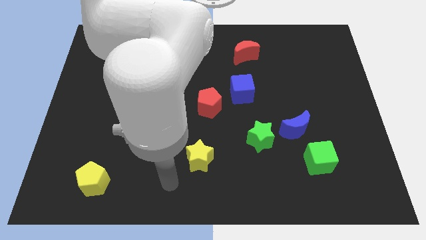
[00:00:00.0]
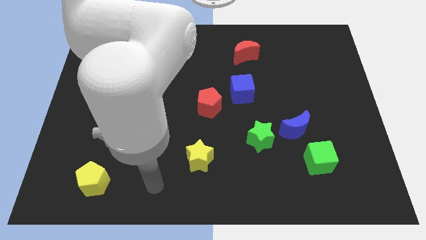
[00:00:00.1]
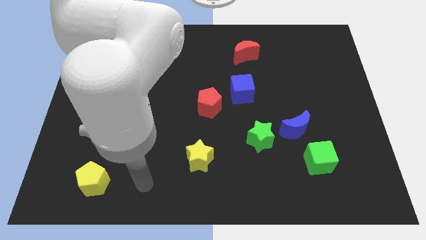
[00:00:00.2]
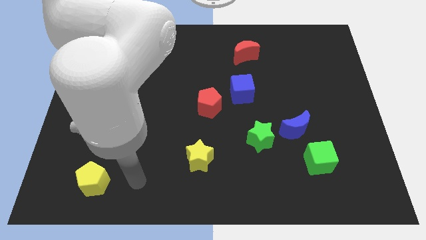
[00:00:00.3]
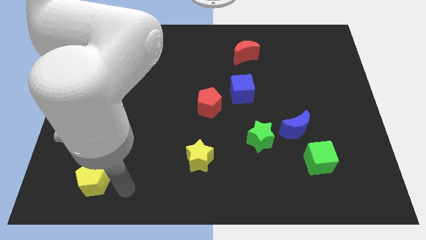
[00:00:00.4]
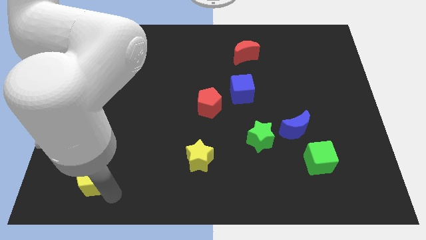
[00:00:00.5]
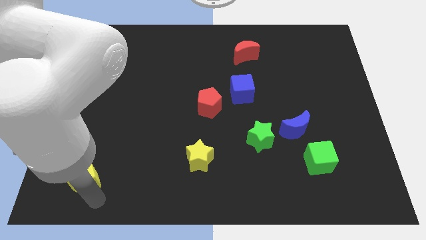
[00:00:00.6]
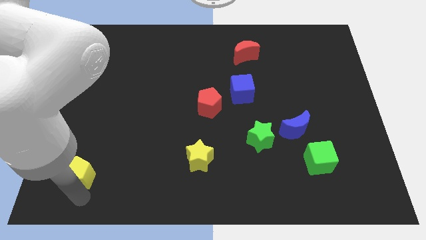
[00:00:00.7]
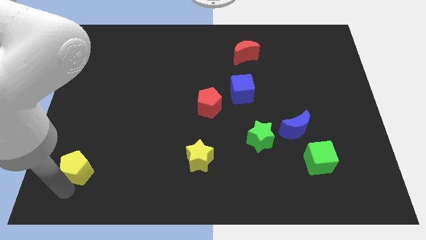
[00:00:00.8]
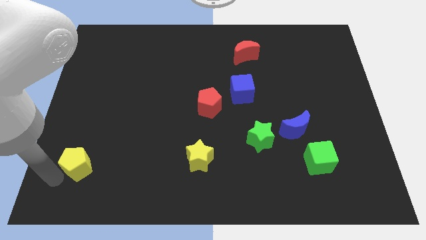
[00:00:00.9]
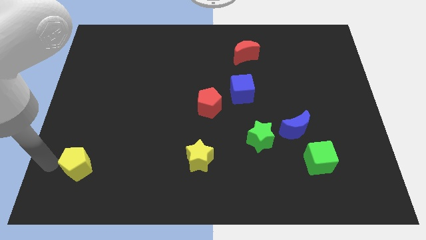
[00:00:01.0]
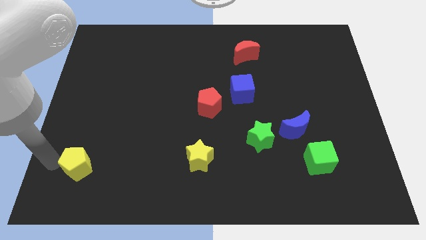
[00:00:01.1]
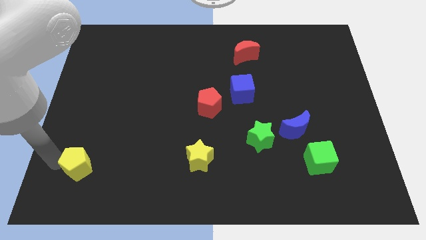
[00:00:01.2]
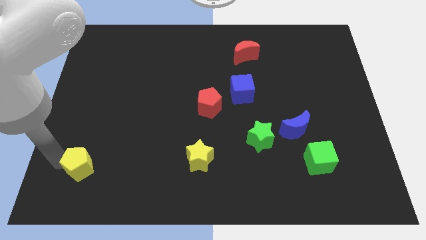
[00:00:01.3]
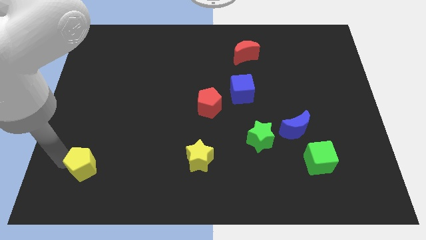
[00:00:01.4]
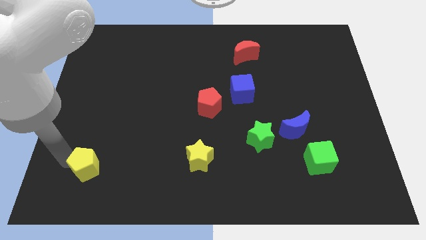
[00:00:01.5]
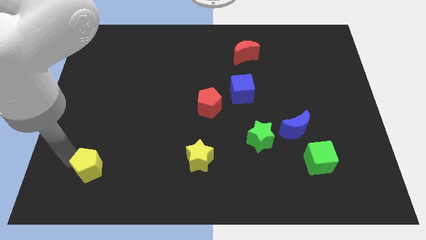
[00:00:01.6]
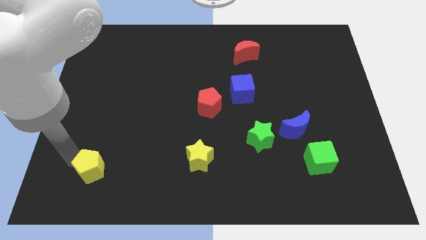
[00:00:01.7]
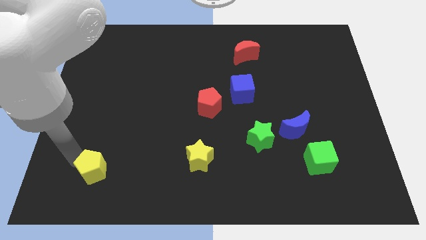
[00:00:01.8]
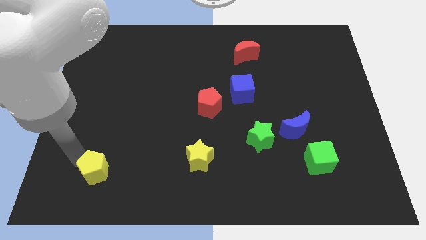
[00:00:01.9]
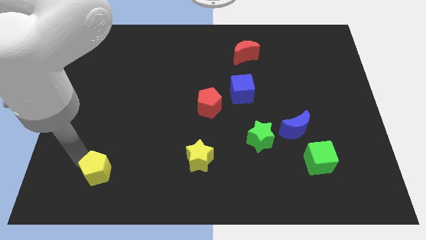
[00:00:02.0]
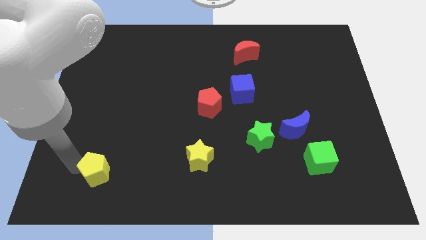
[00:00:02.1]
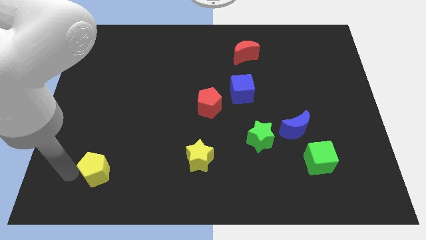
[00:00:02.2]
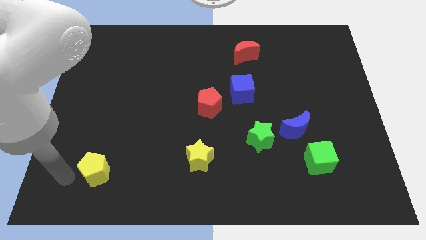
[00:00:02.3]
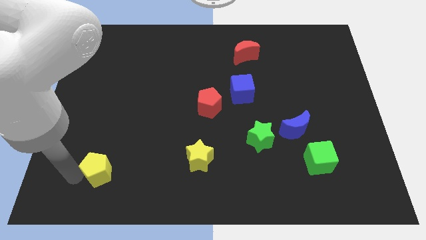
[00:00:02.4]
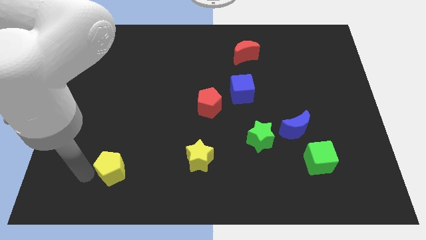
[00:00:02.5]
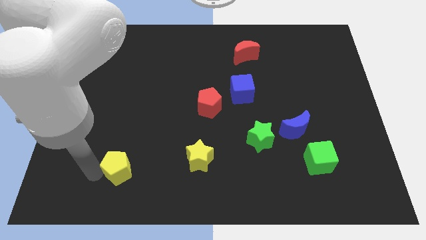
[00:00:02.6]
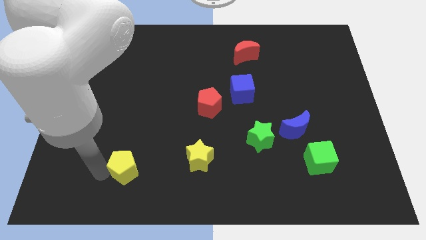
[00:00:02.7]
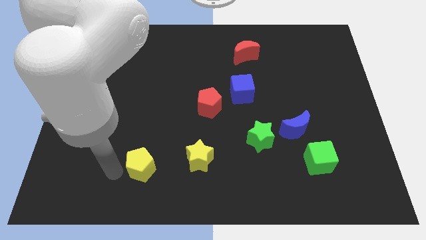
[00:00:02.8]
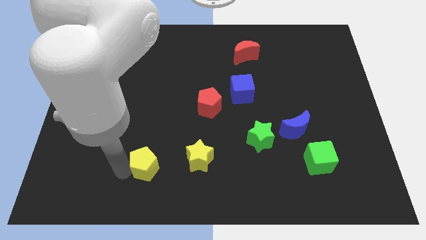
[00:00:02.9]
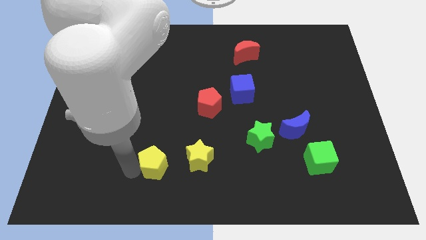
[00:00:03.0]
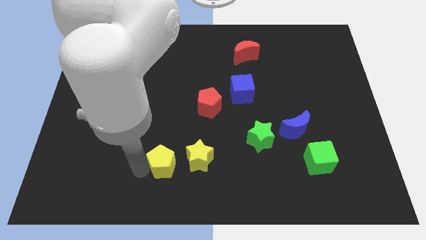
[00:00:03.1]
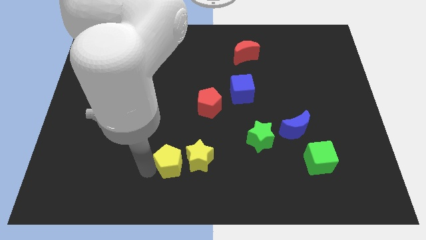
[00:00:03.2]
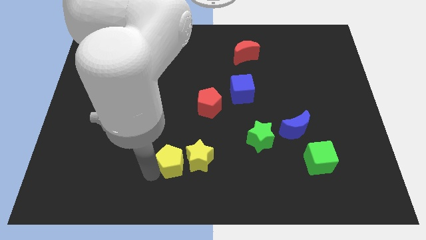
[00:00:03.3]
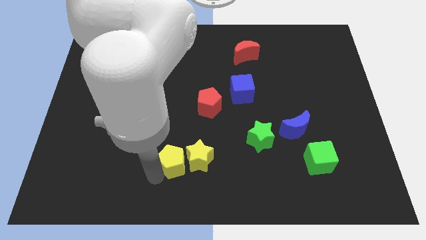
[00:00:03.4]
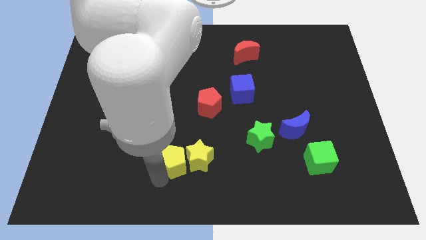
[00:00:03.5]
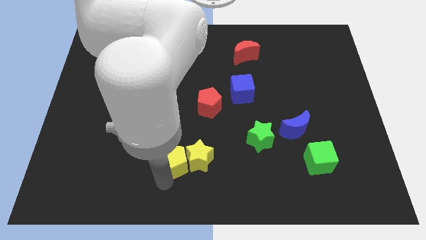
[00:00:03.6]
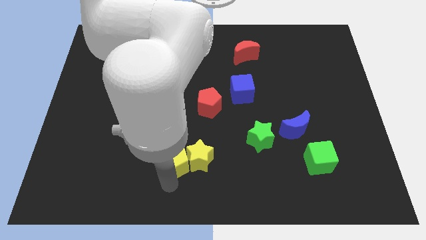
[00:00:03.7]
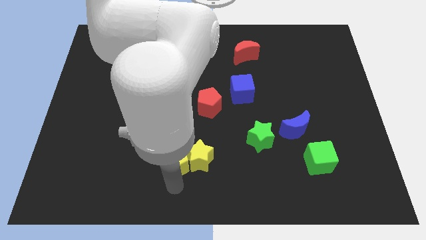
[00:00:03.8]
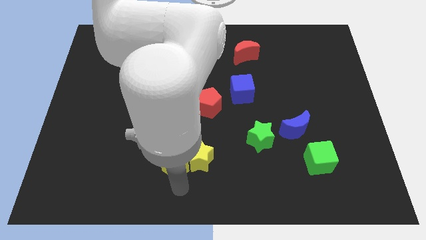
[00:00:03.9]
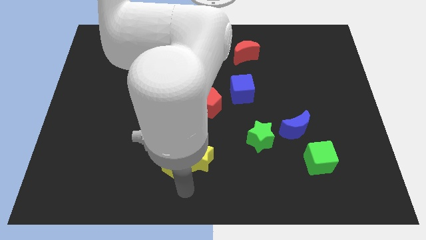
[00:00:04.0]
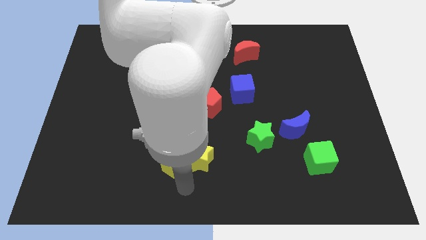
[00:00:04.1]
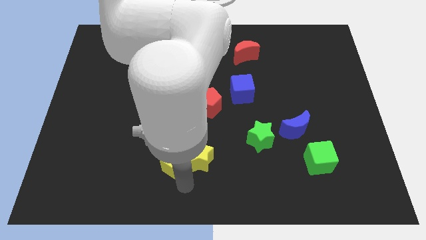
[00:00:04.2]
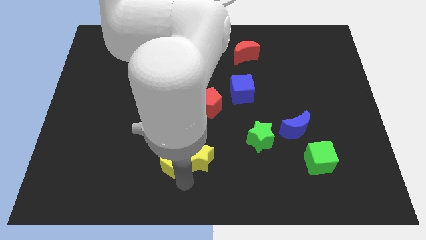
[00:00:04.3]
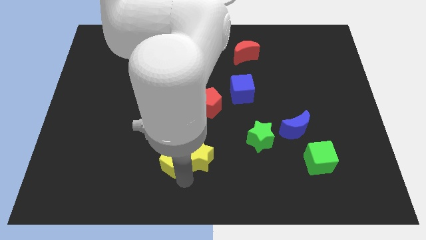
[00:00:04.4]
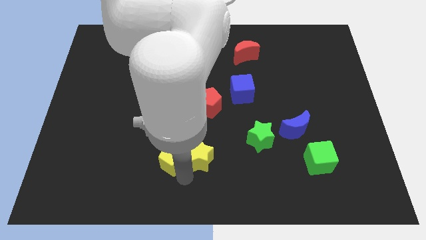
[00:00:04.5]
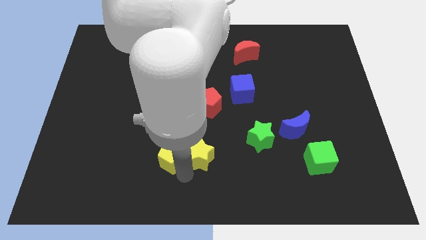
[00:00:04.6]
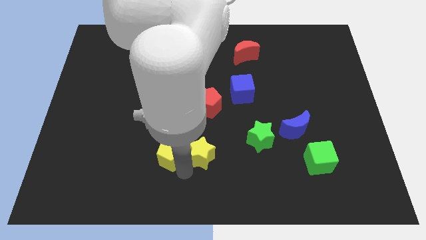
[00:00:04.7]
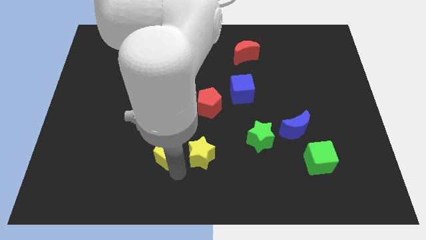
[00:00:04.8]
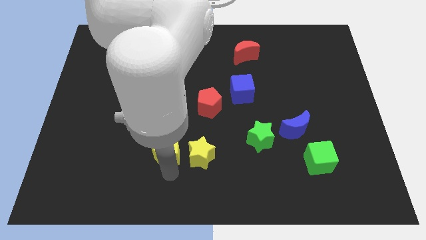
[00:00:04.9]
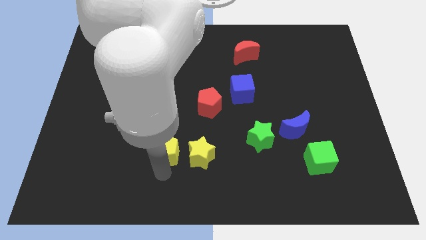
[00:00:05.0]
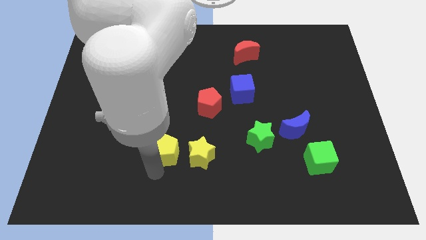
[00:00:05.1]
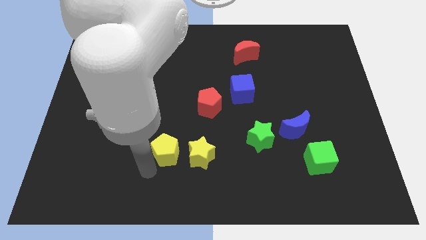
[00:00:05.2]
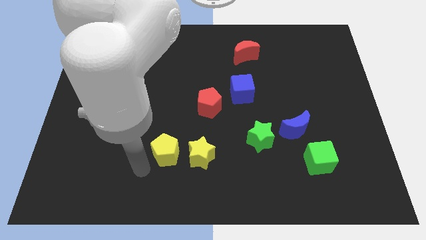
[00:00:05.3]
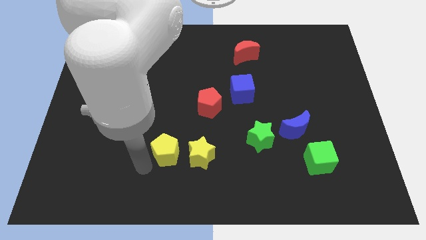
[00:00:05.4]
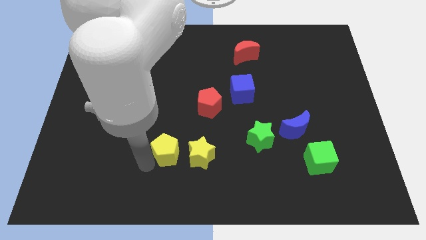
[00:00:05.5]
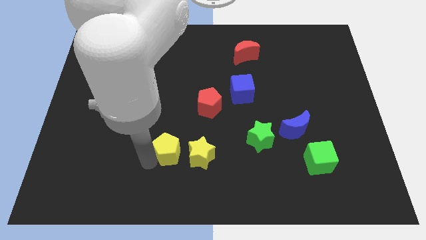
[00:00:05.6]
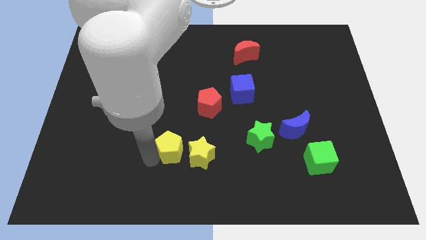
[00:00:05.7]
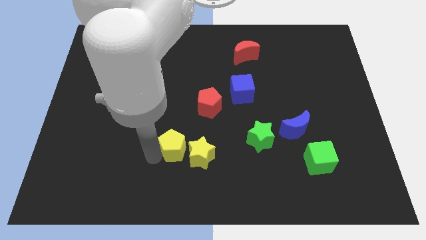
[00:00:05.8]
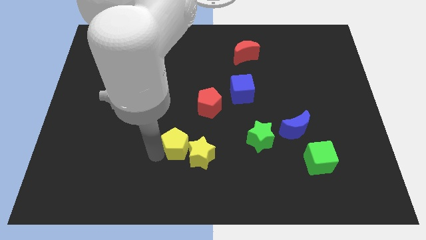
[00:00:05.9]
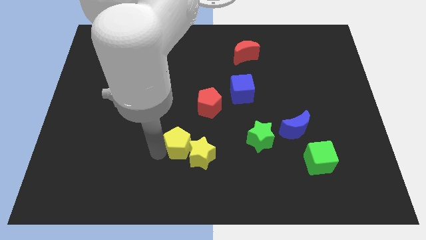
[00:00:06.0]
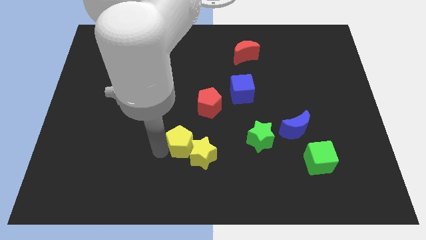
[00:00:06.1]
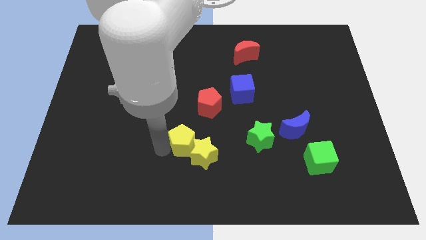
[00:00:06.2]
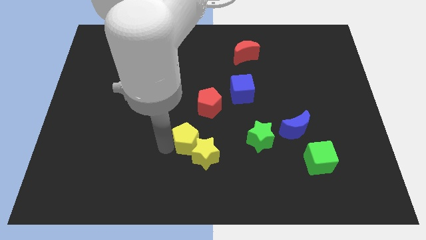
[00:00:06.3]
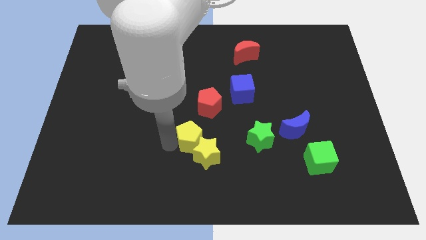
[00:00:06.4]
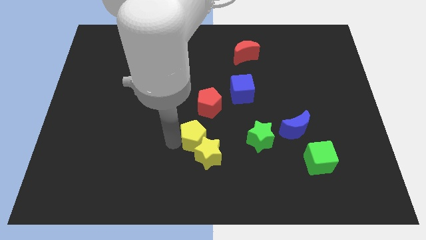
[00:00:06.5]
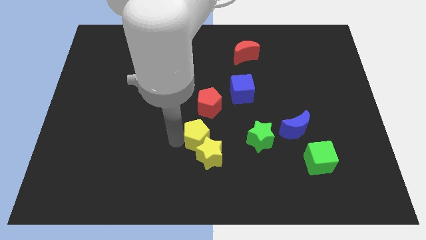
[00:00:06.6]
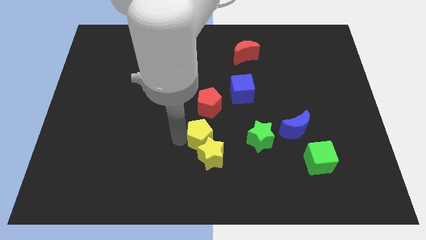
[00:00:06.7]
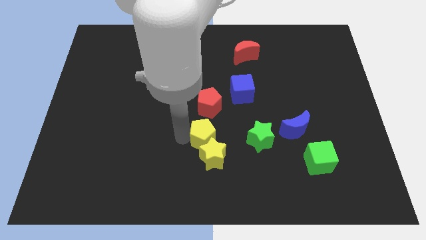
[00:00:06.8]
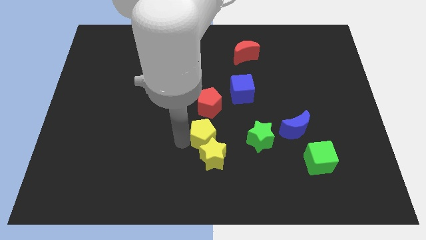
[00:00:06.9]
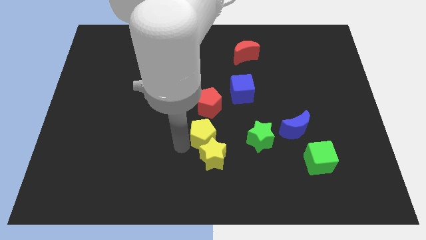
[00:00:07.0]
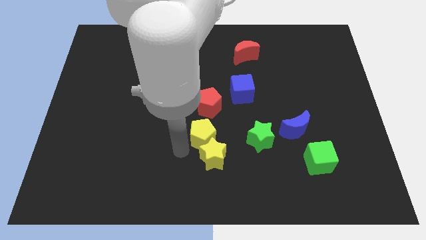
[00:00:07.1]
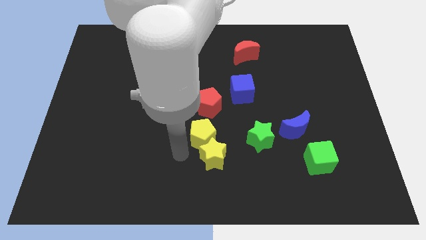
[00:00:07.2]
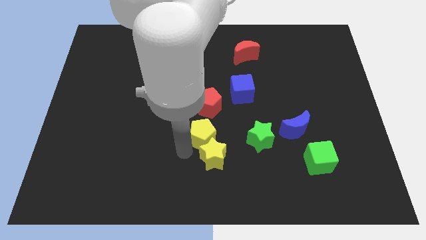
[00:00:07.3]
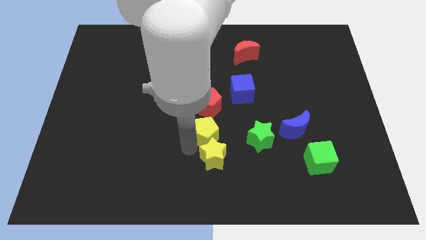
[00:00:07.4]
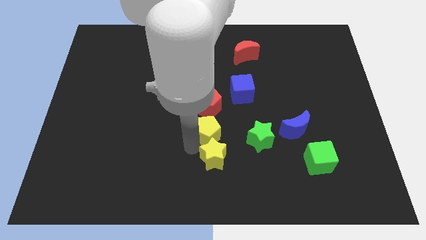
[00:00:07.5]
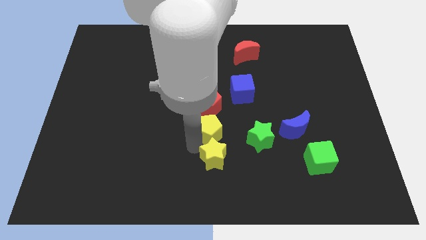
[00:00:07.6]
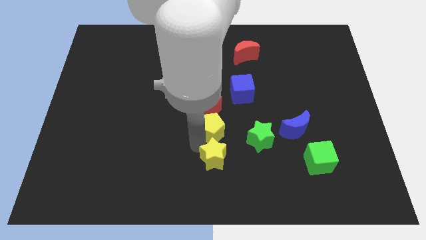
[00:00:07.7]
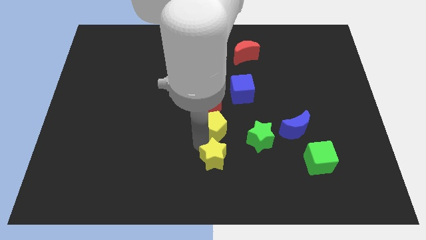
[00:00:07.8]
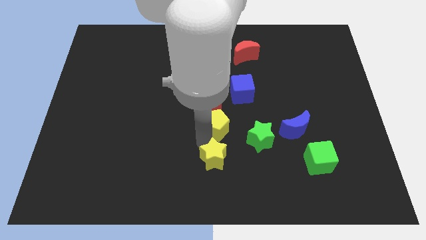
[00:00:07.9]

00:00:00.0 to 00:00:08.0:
put the yellow pentagon to the top left side of the green star
